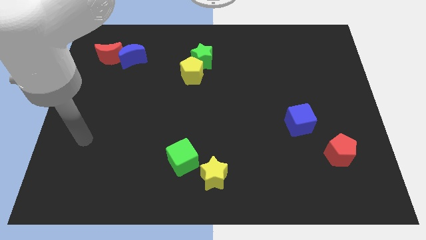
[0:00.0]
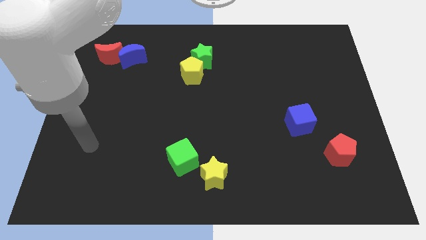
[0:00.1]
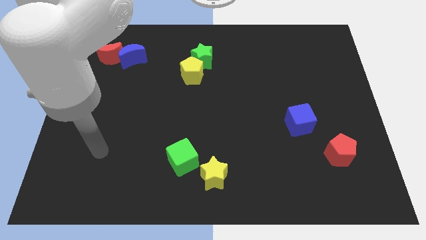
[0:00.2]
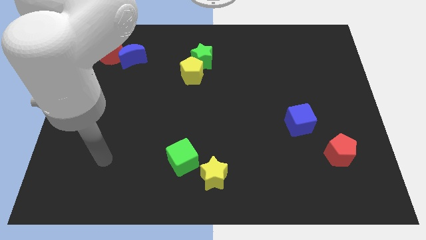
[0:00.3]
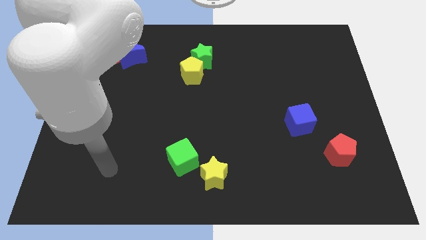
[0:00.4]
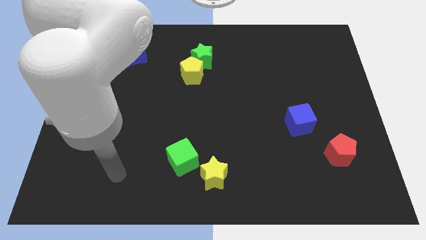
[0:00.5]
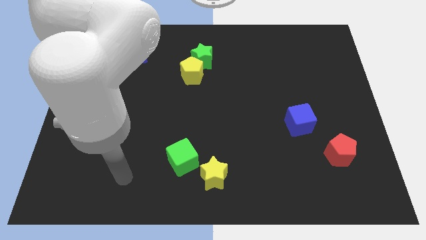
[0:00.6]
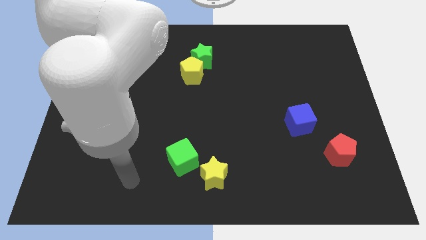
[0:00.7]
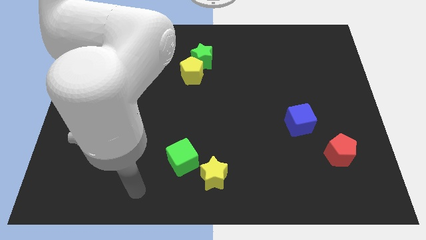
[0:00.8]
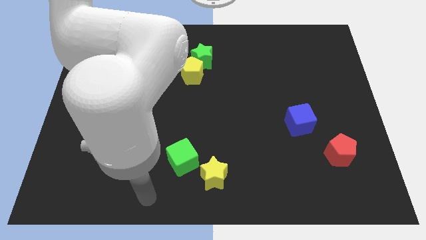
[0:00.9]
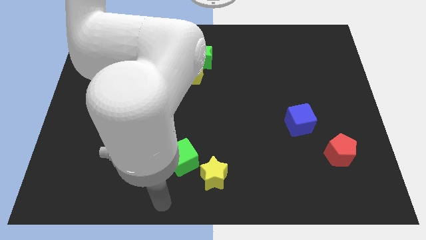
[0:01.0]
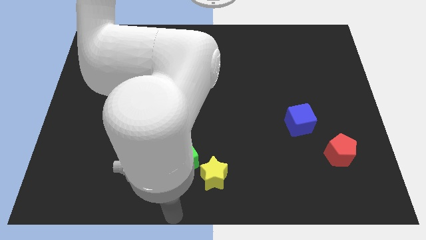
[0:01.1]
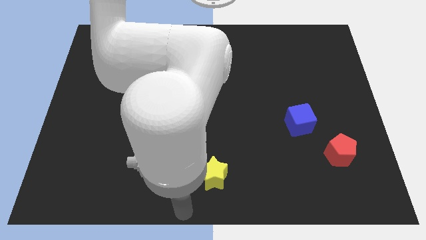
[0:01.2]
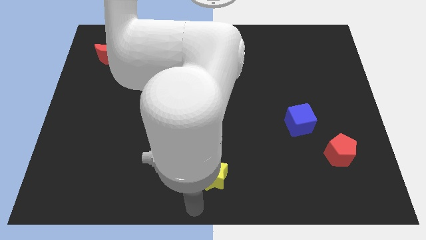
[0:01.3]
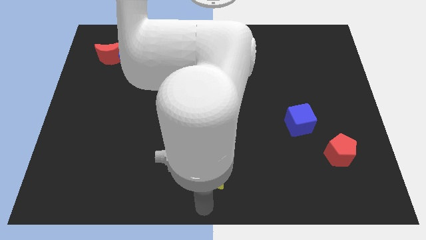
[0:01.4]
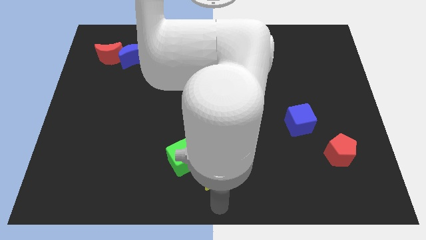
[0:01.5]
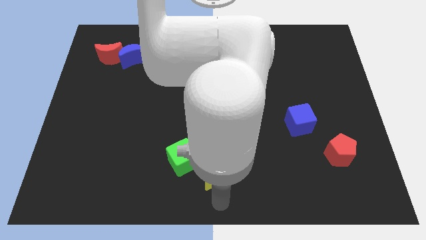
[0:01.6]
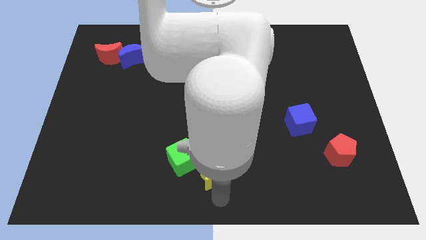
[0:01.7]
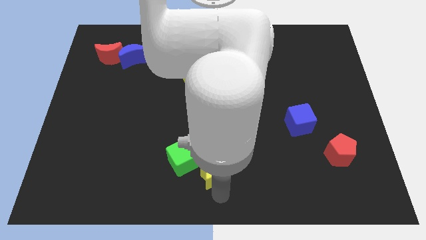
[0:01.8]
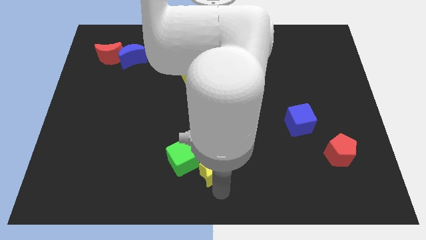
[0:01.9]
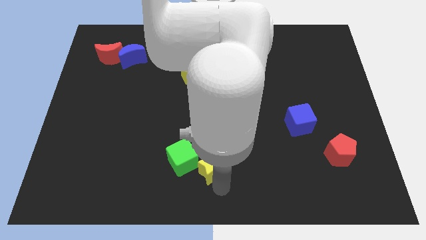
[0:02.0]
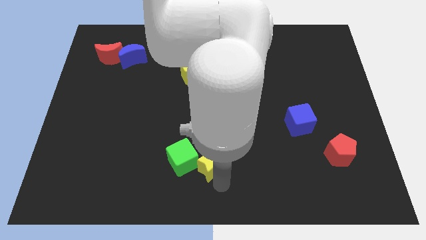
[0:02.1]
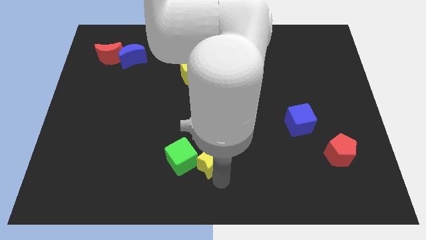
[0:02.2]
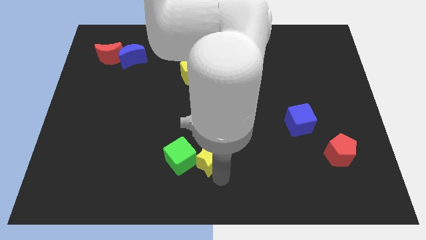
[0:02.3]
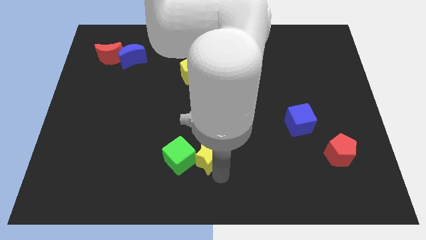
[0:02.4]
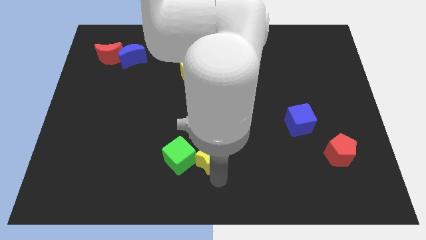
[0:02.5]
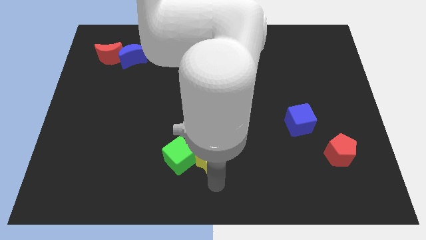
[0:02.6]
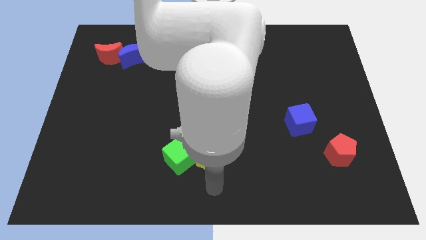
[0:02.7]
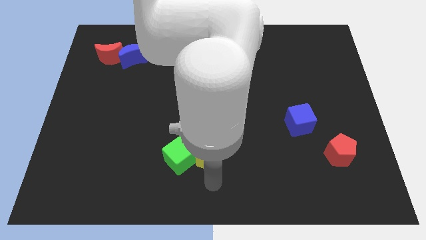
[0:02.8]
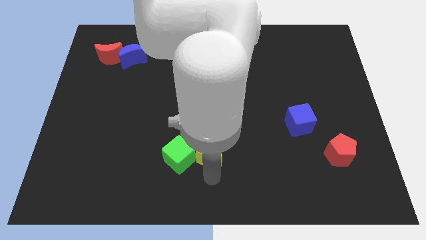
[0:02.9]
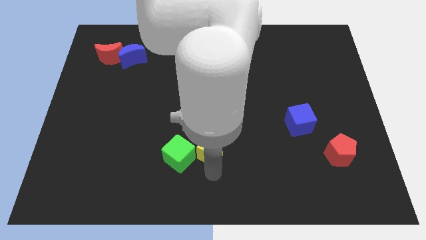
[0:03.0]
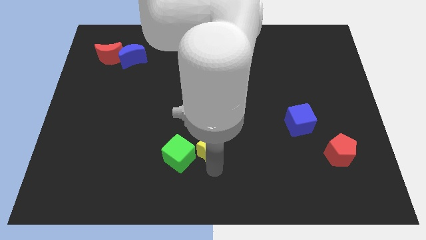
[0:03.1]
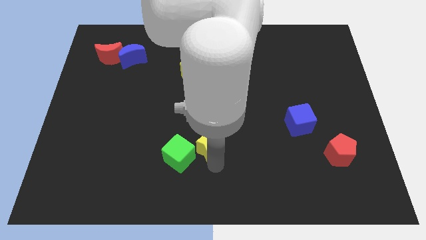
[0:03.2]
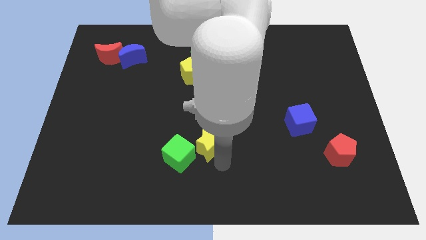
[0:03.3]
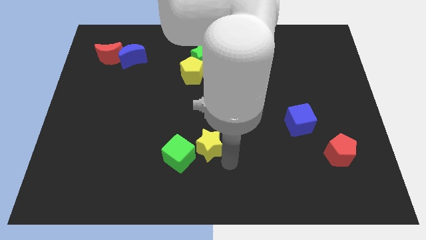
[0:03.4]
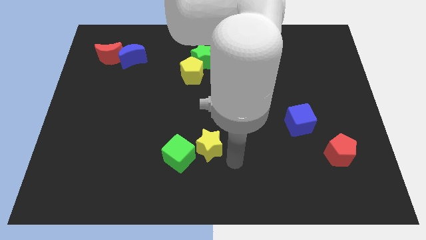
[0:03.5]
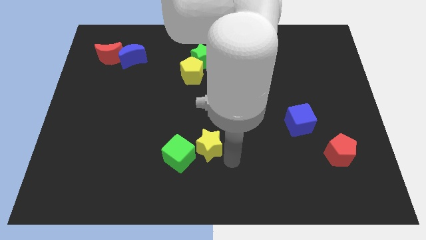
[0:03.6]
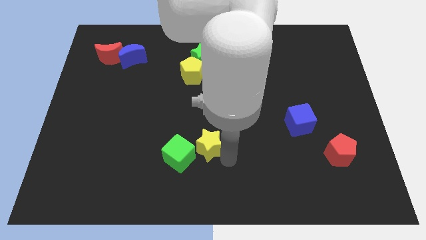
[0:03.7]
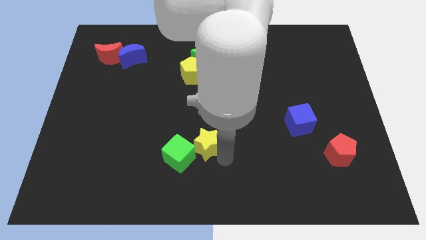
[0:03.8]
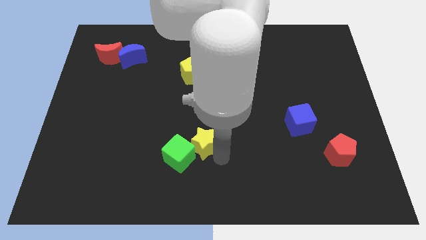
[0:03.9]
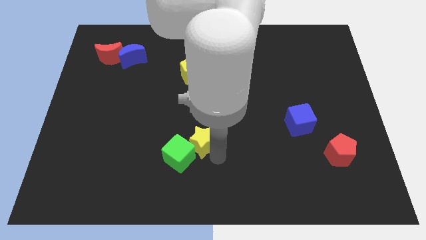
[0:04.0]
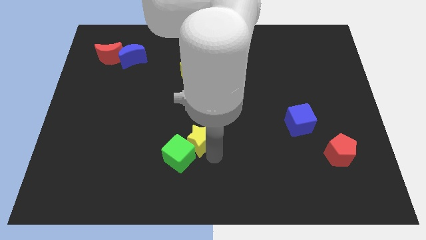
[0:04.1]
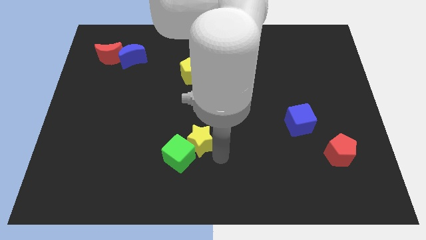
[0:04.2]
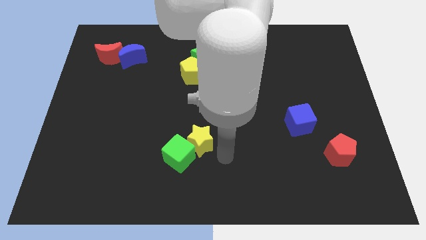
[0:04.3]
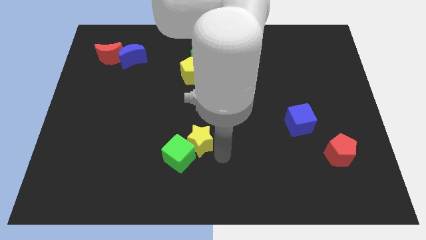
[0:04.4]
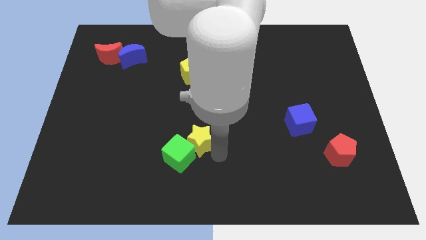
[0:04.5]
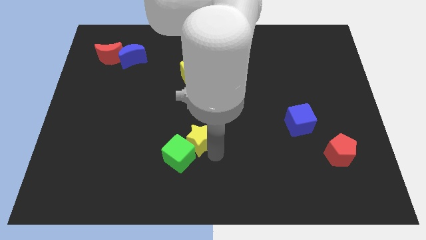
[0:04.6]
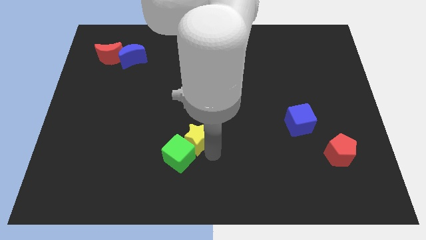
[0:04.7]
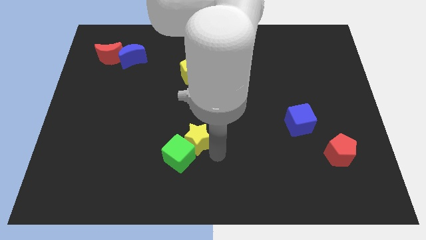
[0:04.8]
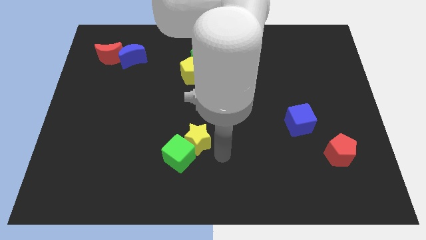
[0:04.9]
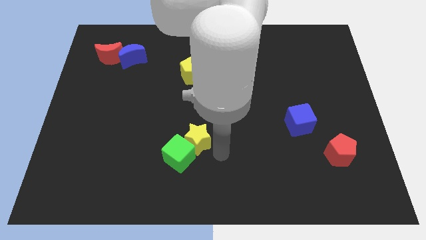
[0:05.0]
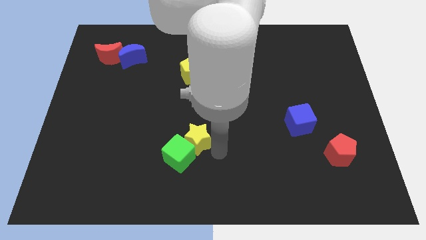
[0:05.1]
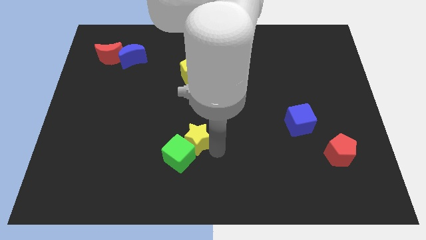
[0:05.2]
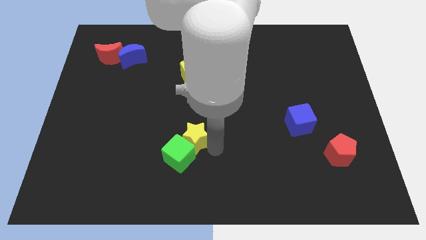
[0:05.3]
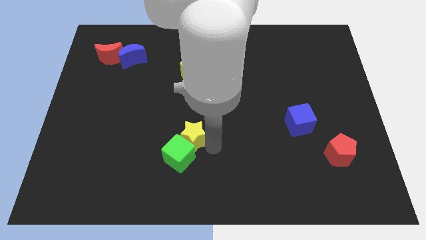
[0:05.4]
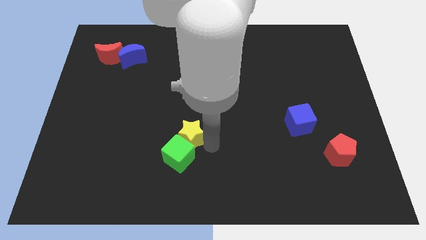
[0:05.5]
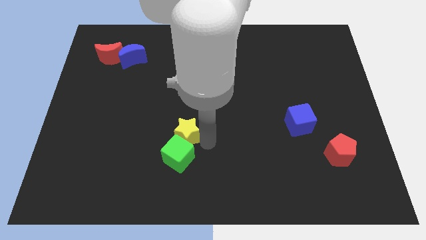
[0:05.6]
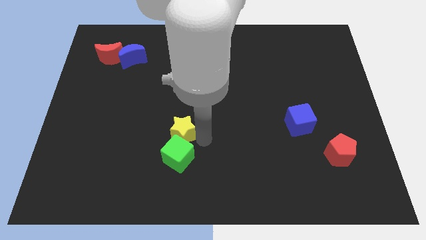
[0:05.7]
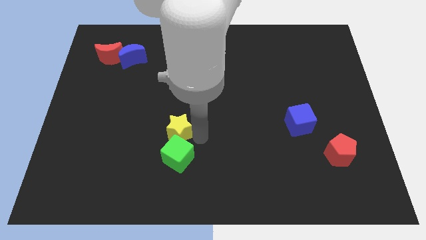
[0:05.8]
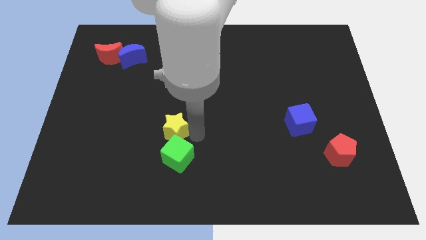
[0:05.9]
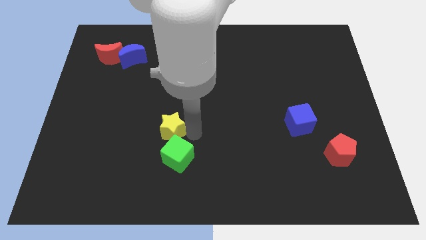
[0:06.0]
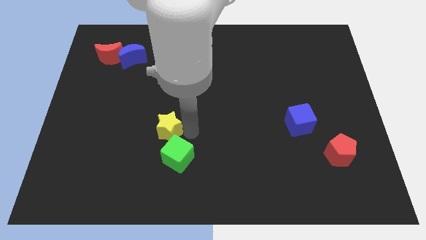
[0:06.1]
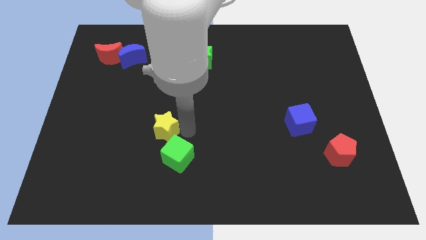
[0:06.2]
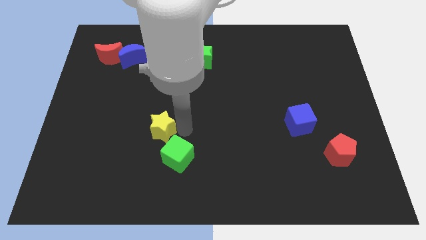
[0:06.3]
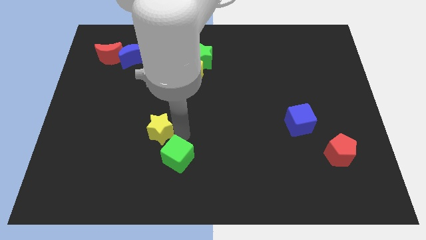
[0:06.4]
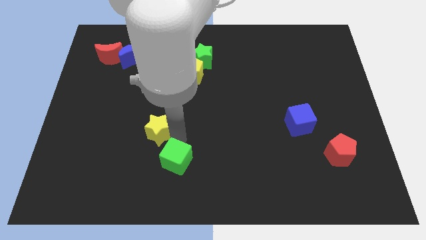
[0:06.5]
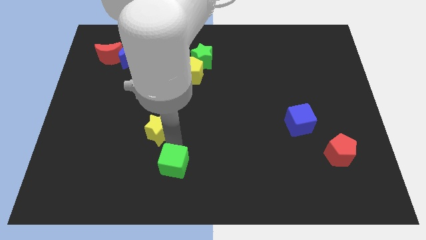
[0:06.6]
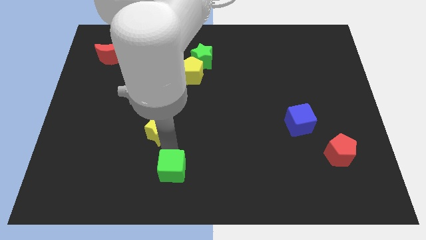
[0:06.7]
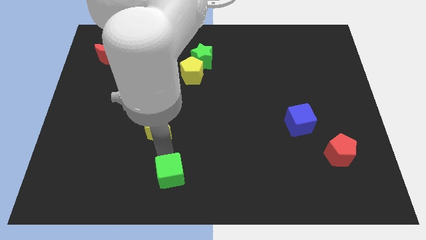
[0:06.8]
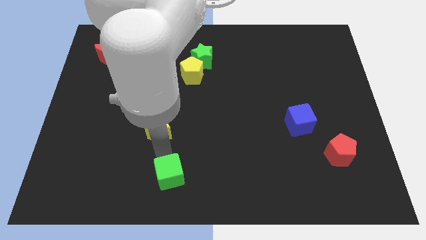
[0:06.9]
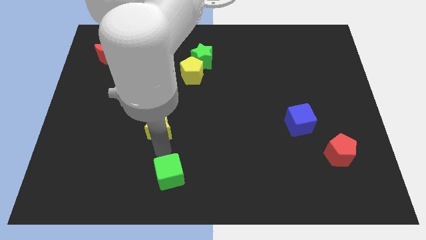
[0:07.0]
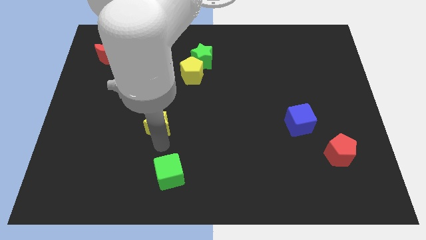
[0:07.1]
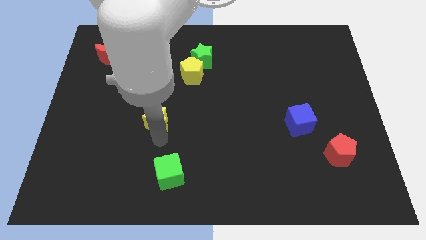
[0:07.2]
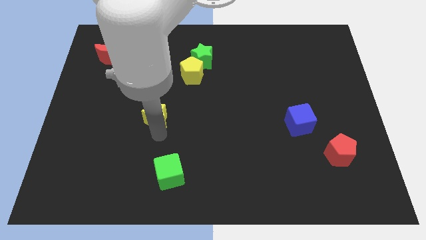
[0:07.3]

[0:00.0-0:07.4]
push the yellow star upwards and to the left

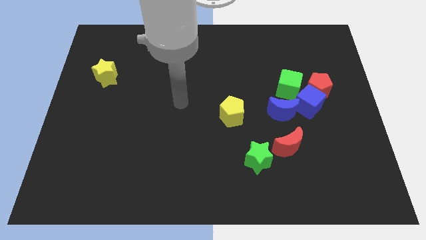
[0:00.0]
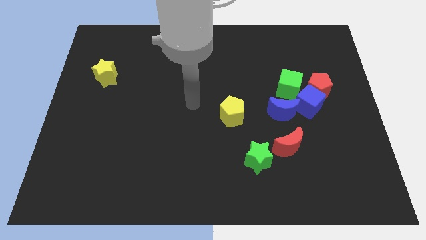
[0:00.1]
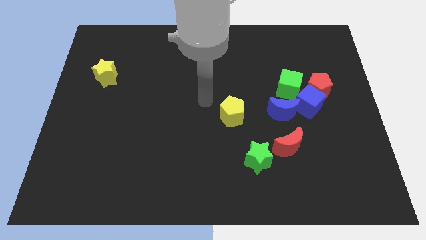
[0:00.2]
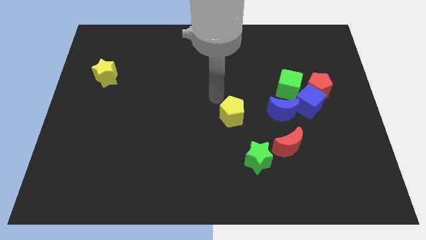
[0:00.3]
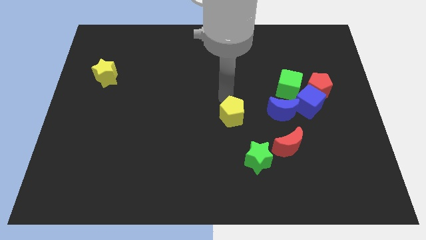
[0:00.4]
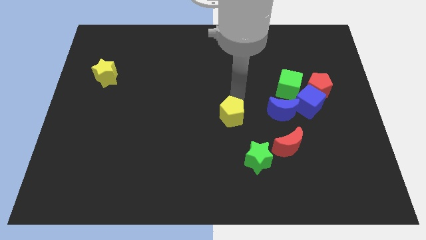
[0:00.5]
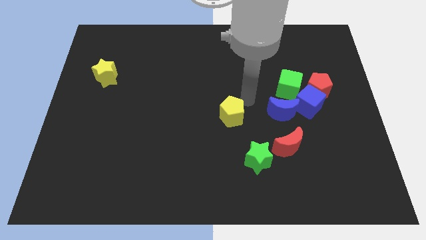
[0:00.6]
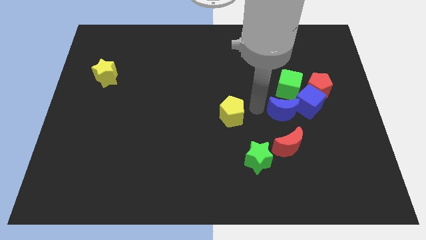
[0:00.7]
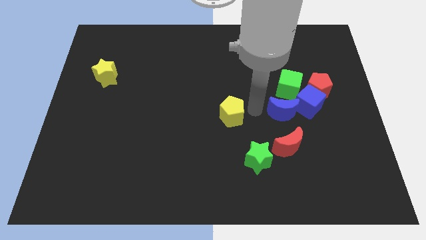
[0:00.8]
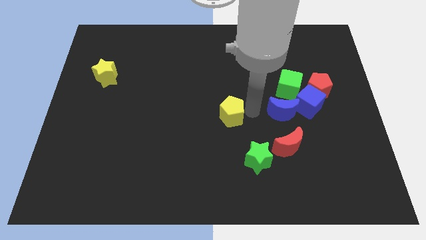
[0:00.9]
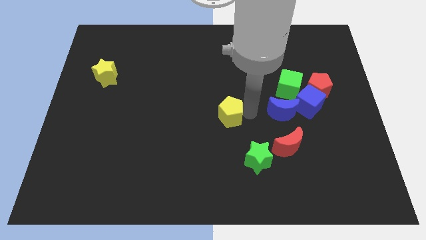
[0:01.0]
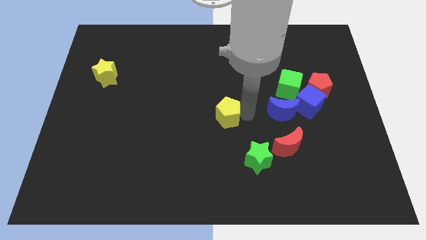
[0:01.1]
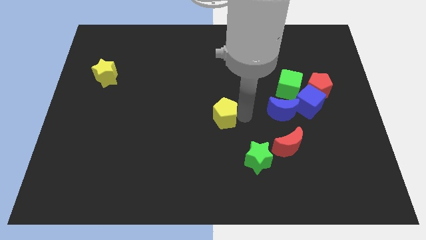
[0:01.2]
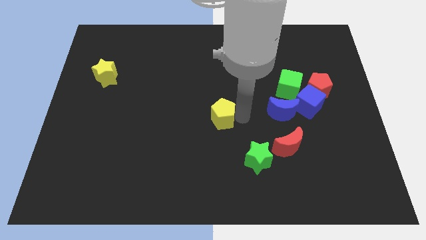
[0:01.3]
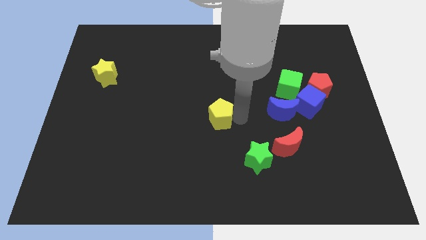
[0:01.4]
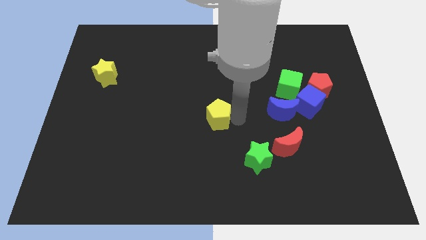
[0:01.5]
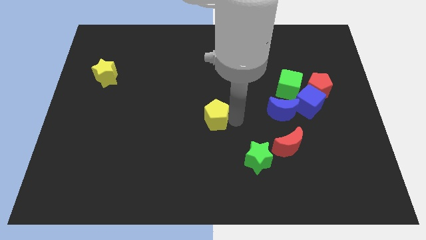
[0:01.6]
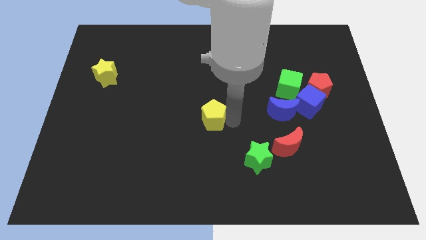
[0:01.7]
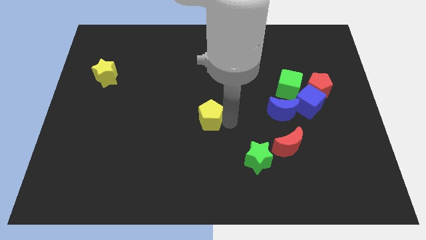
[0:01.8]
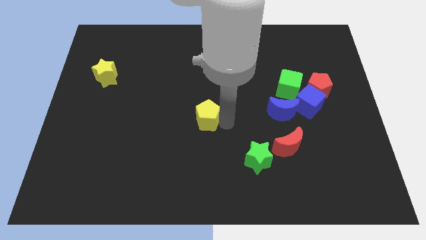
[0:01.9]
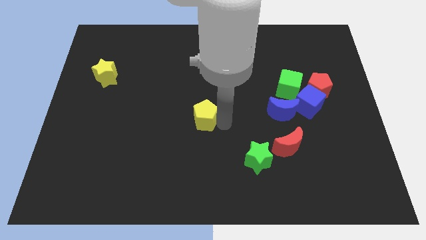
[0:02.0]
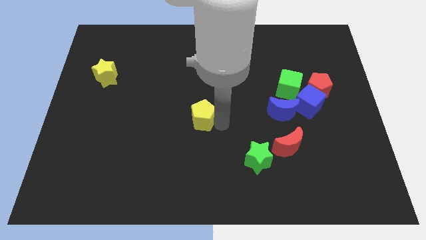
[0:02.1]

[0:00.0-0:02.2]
slide the yellow pentagon a little bit to the left
